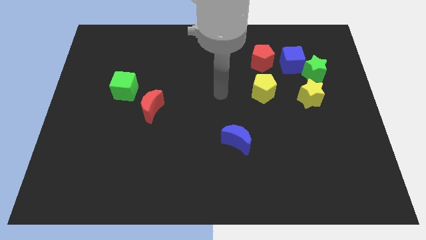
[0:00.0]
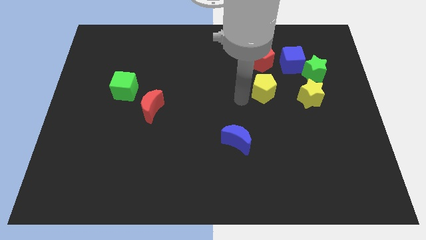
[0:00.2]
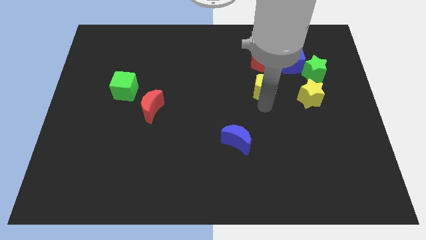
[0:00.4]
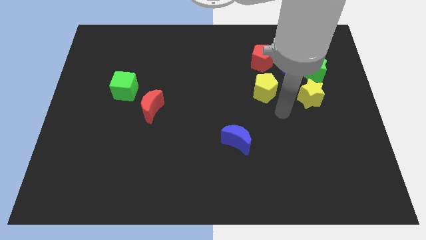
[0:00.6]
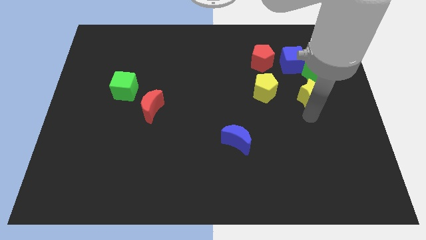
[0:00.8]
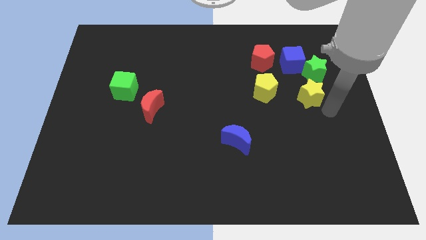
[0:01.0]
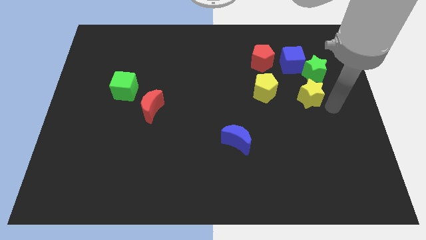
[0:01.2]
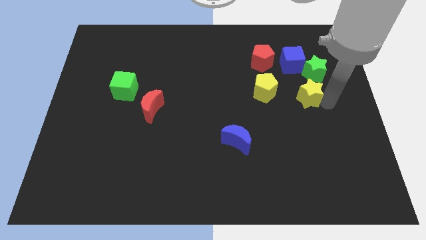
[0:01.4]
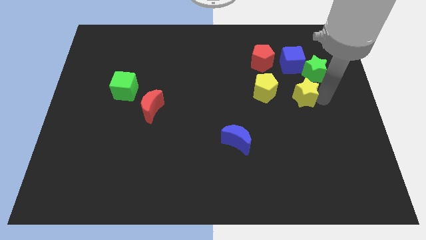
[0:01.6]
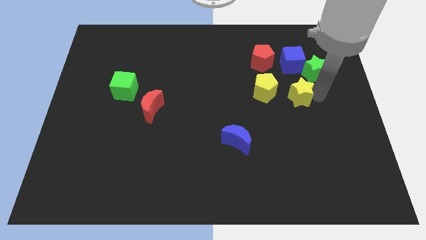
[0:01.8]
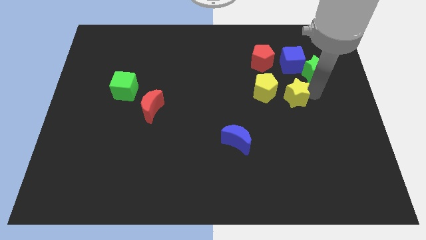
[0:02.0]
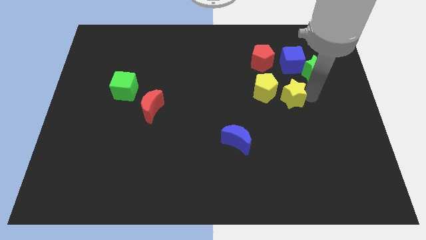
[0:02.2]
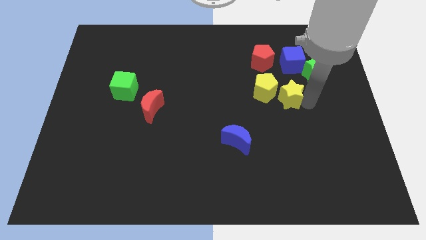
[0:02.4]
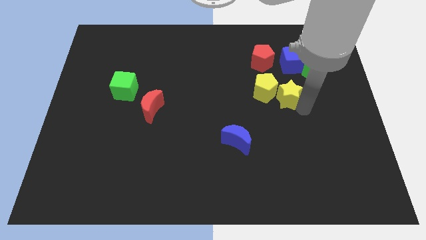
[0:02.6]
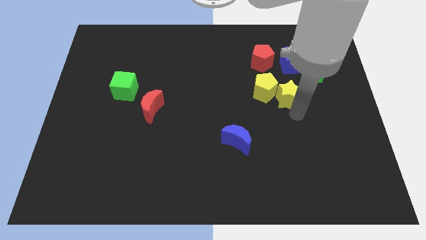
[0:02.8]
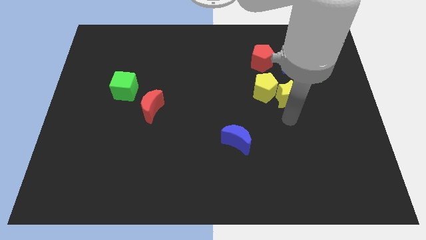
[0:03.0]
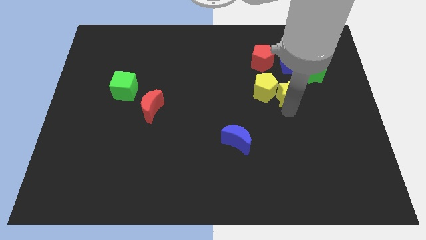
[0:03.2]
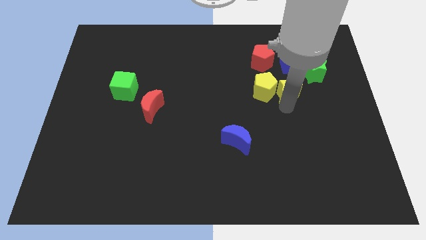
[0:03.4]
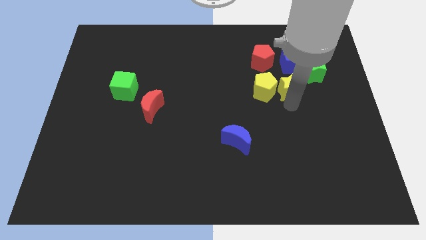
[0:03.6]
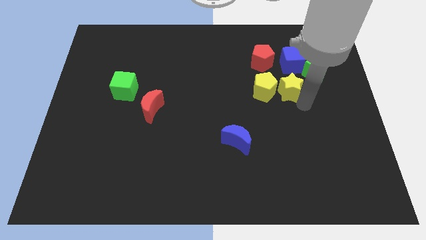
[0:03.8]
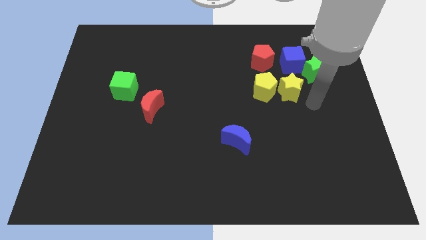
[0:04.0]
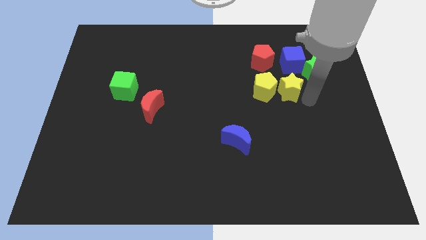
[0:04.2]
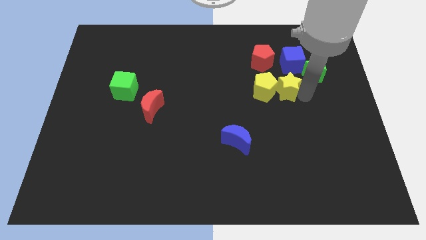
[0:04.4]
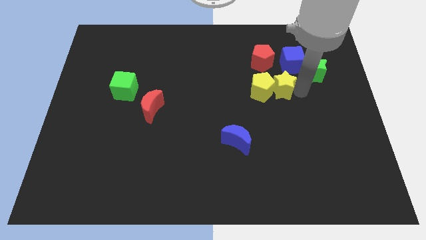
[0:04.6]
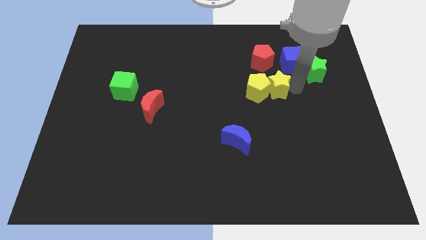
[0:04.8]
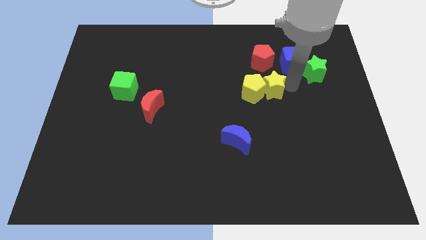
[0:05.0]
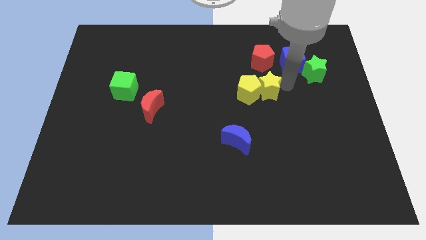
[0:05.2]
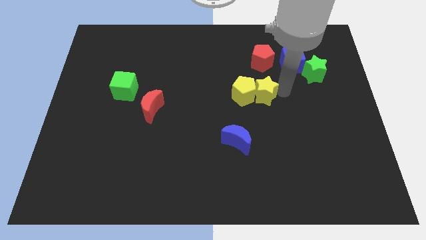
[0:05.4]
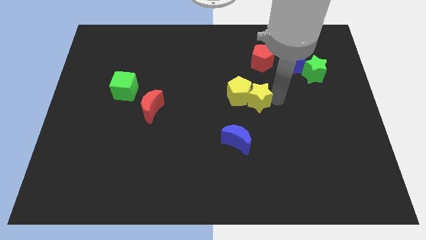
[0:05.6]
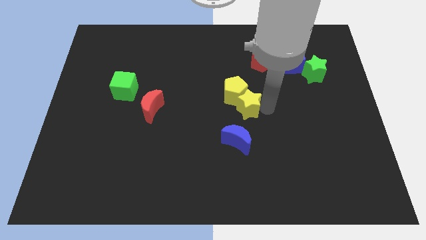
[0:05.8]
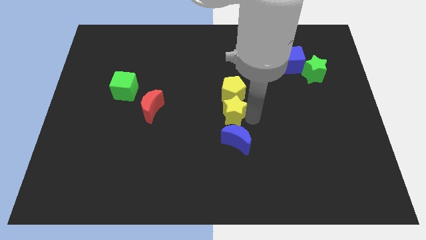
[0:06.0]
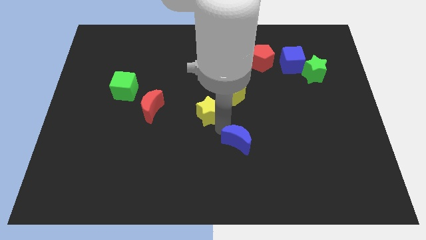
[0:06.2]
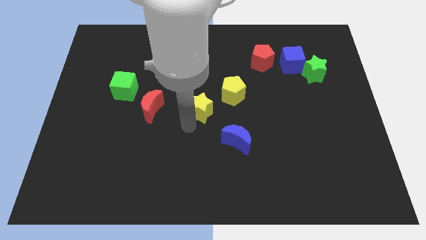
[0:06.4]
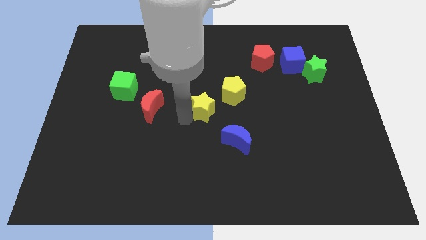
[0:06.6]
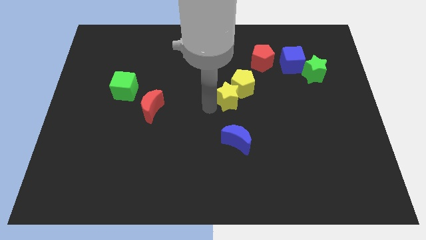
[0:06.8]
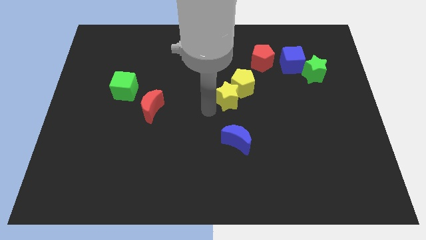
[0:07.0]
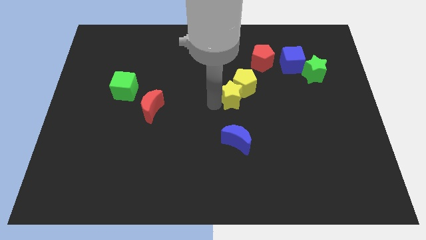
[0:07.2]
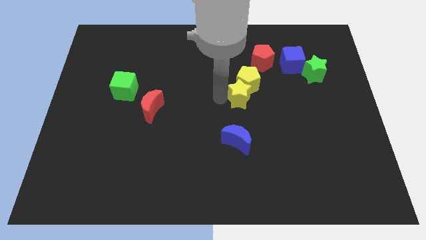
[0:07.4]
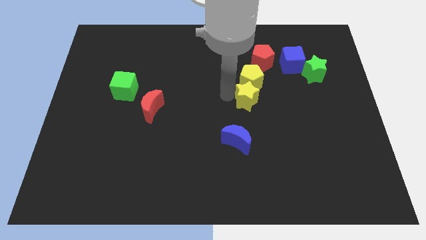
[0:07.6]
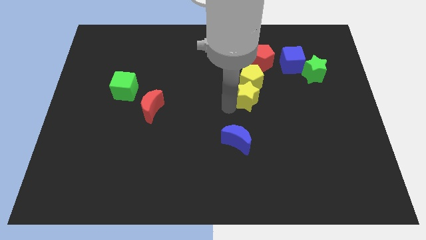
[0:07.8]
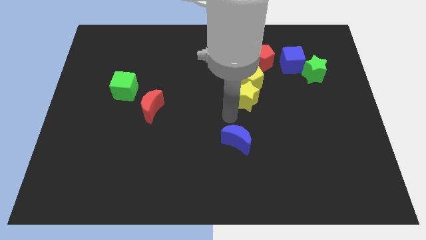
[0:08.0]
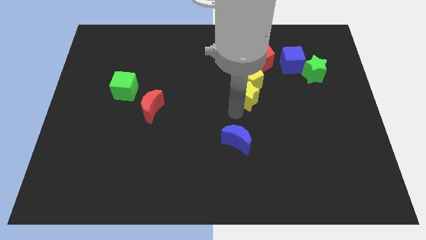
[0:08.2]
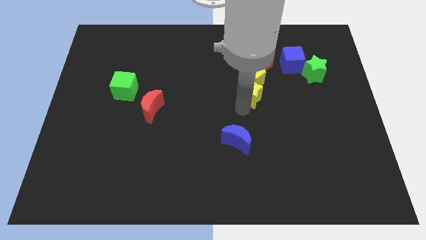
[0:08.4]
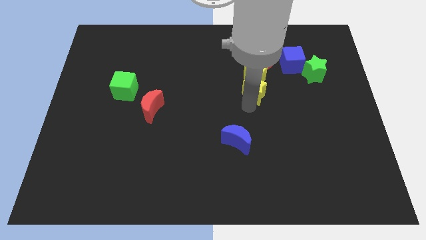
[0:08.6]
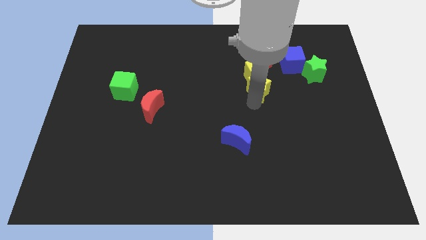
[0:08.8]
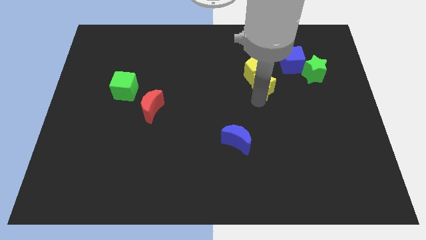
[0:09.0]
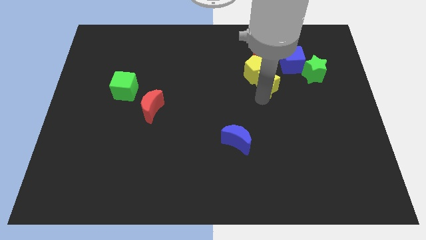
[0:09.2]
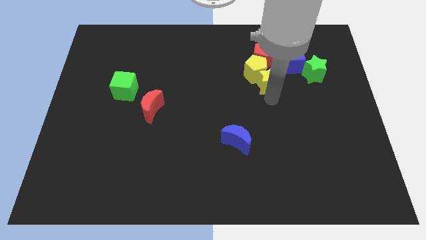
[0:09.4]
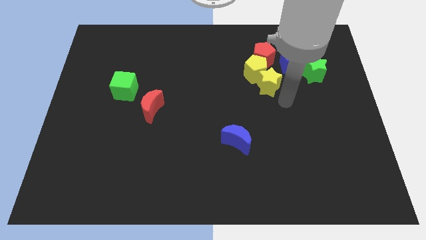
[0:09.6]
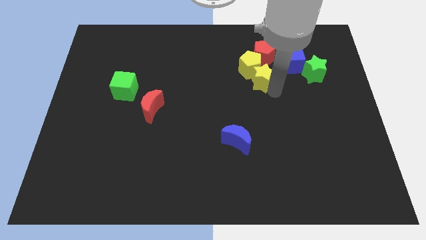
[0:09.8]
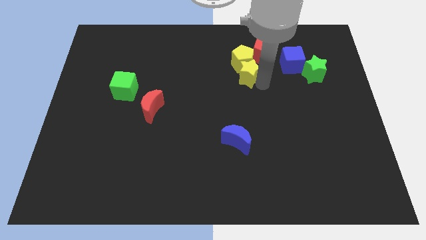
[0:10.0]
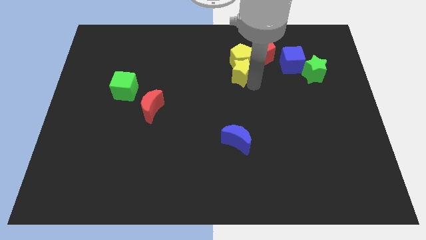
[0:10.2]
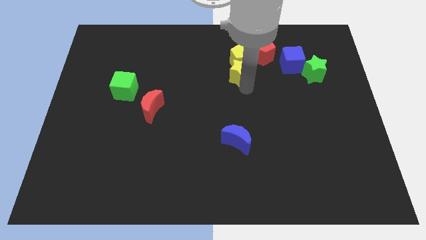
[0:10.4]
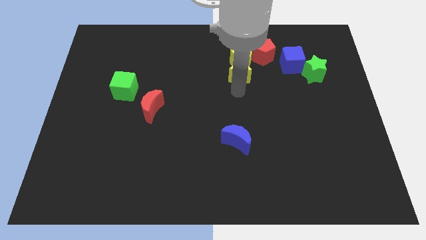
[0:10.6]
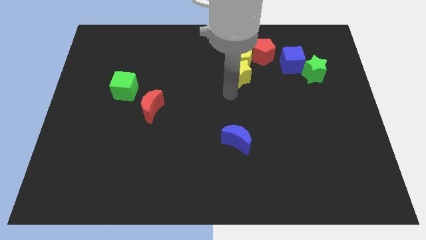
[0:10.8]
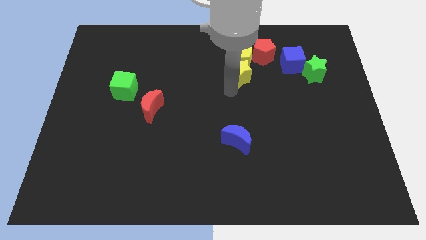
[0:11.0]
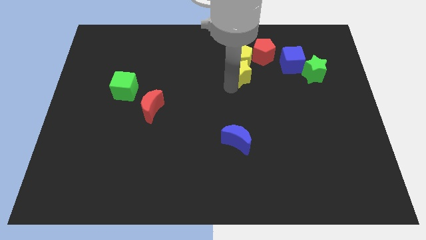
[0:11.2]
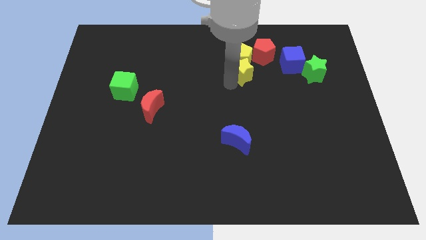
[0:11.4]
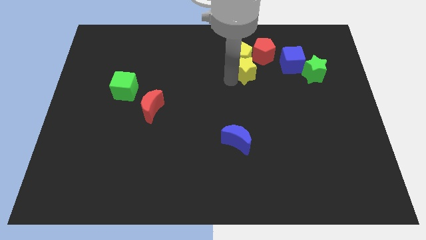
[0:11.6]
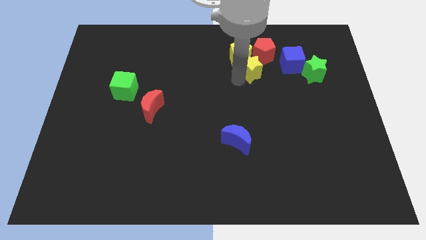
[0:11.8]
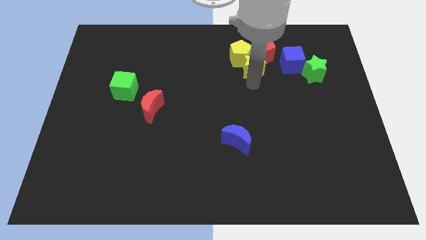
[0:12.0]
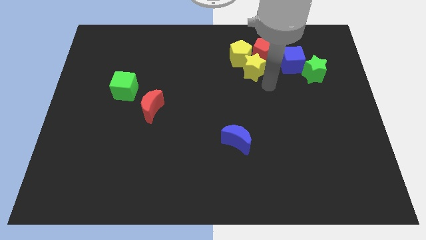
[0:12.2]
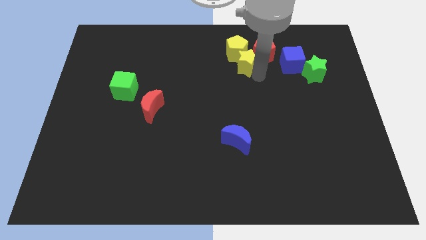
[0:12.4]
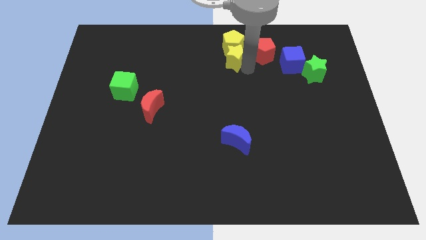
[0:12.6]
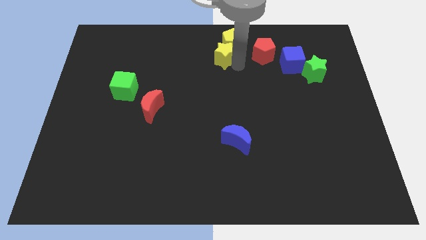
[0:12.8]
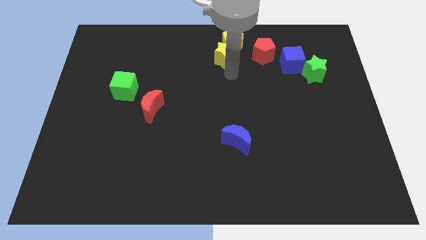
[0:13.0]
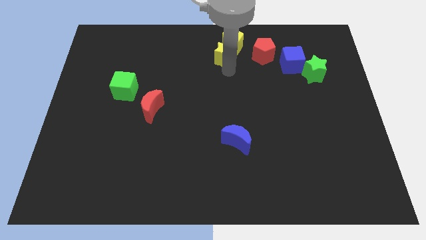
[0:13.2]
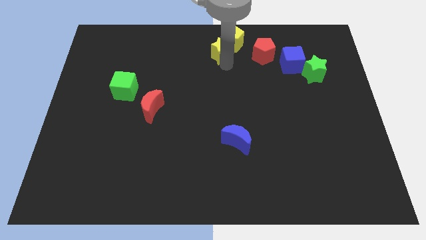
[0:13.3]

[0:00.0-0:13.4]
put the yellow star to the towards your base
